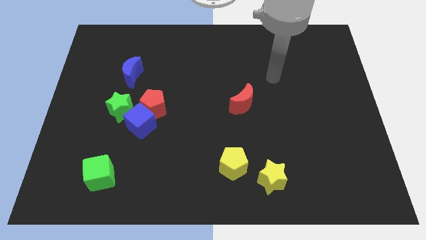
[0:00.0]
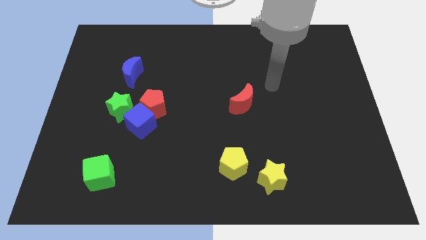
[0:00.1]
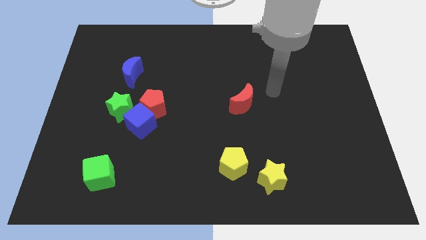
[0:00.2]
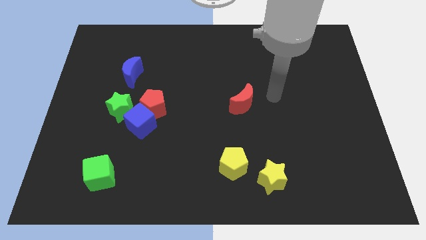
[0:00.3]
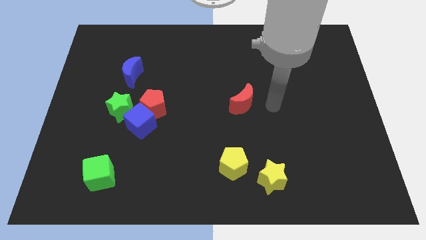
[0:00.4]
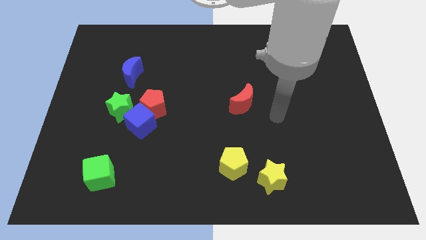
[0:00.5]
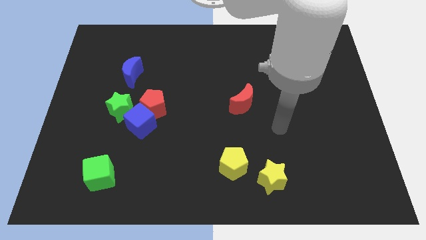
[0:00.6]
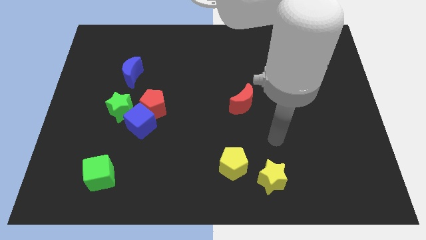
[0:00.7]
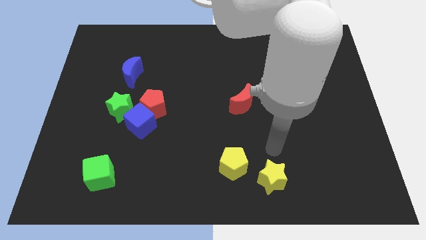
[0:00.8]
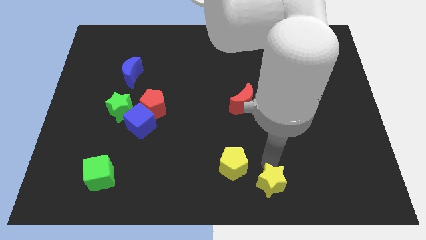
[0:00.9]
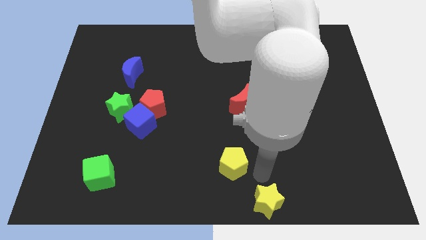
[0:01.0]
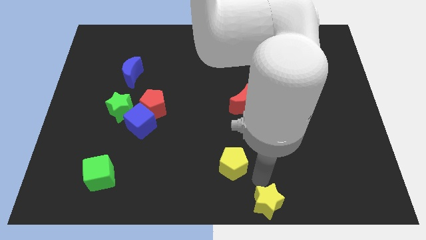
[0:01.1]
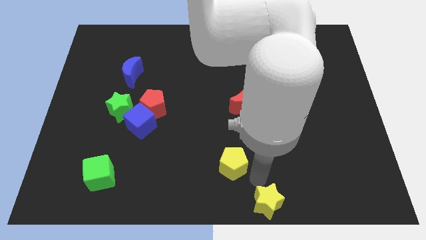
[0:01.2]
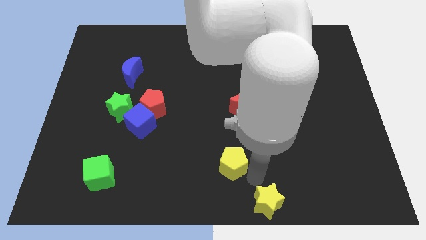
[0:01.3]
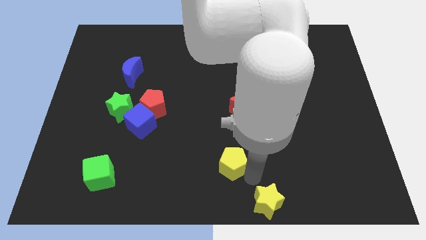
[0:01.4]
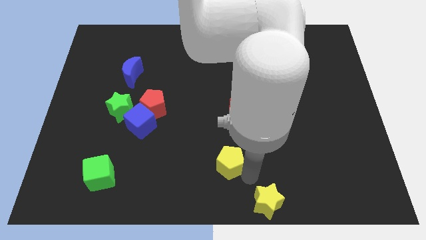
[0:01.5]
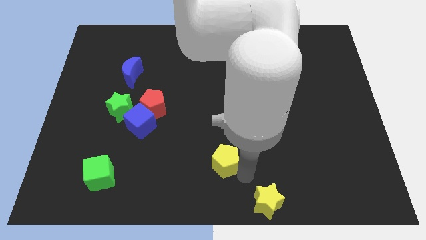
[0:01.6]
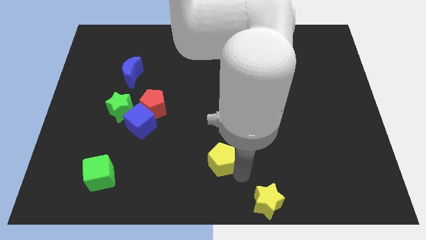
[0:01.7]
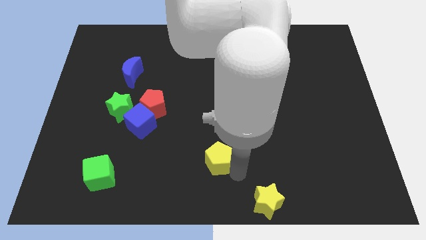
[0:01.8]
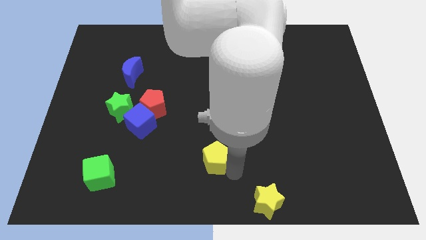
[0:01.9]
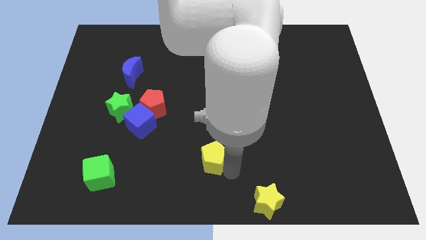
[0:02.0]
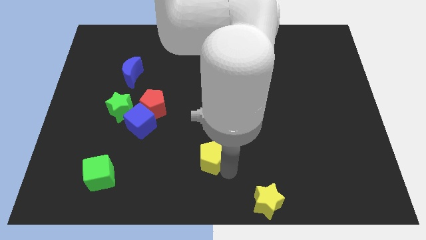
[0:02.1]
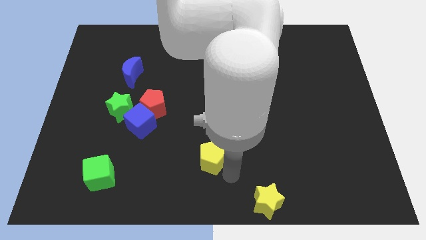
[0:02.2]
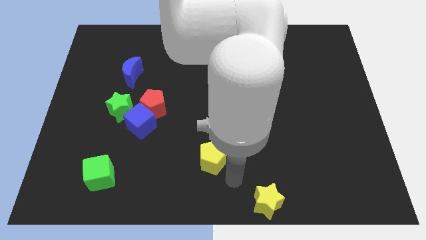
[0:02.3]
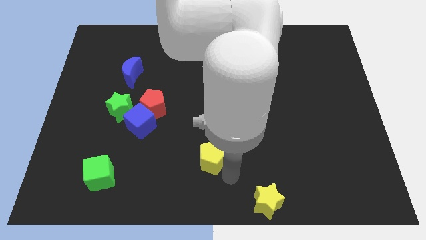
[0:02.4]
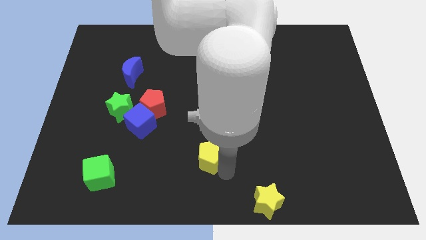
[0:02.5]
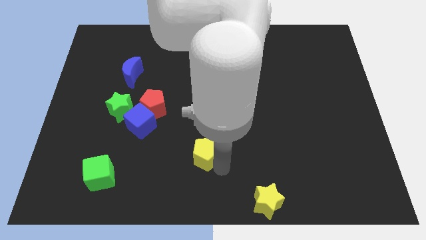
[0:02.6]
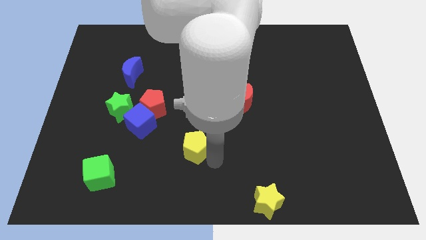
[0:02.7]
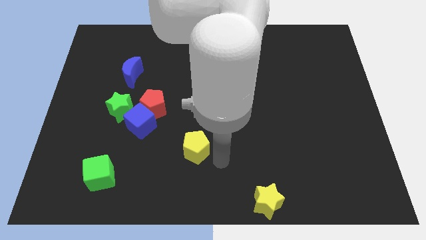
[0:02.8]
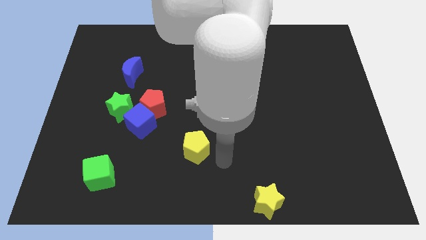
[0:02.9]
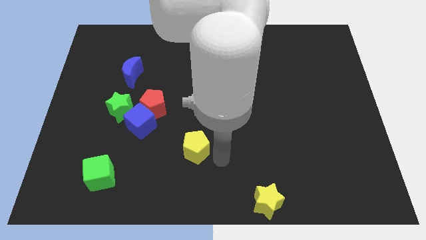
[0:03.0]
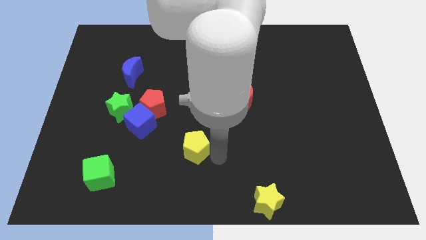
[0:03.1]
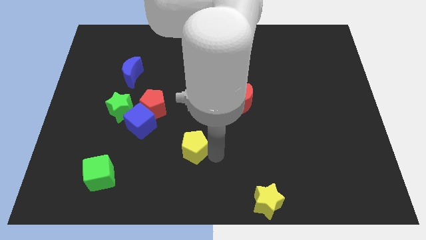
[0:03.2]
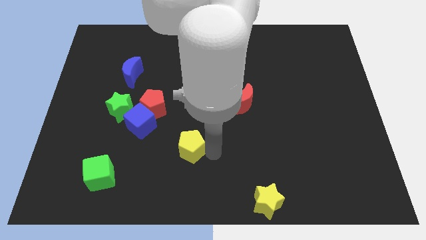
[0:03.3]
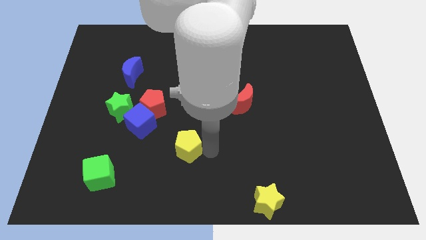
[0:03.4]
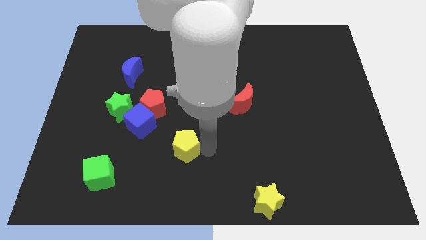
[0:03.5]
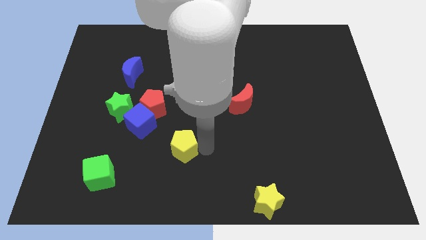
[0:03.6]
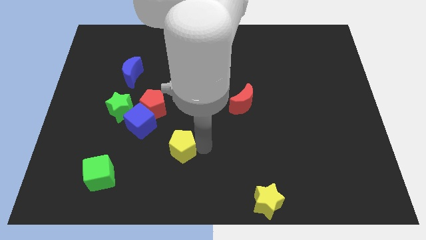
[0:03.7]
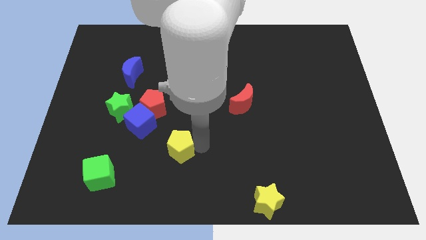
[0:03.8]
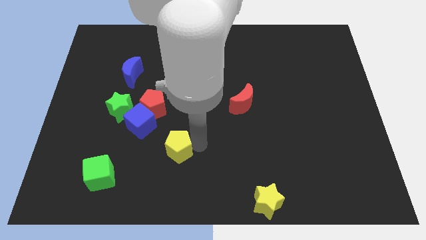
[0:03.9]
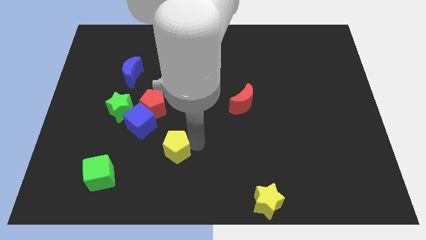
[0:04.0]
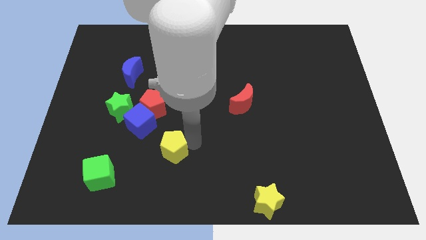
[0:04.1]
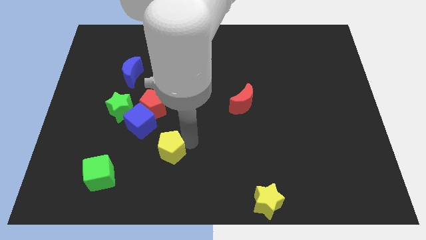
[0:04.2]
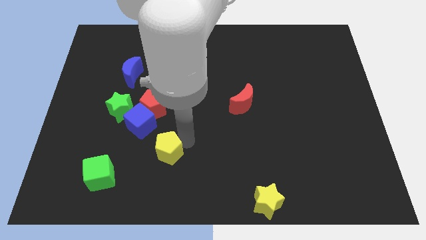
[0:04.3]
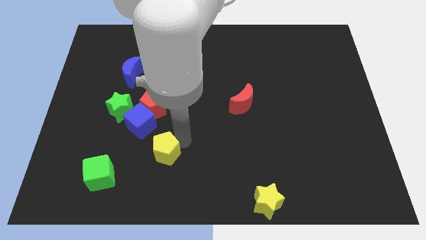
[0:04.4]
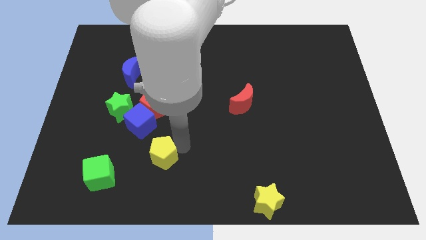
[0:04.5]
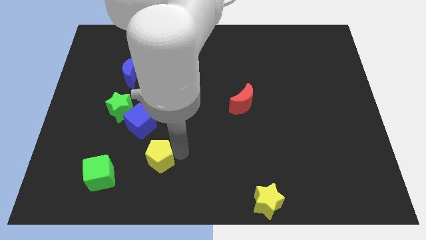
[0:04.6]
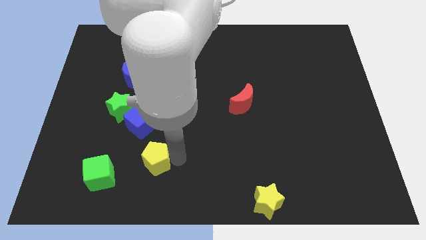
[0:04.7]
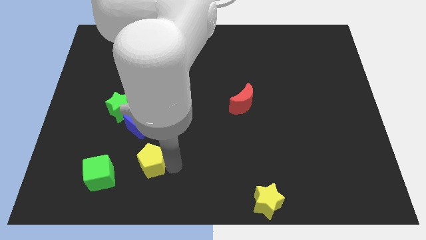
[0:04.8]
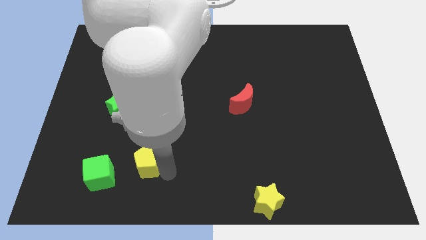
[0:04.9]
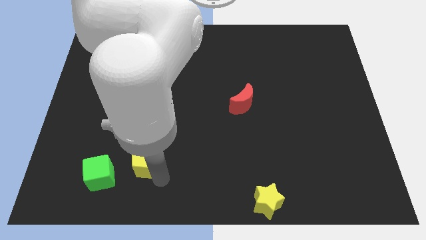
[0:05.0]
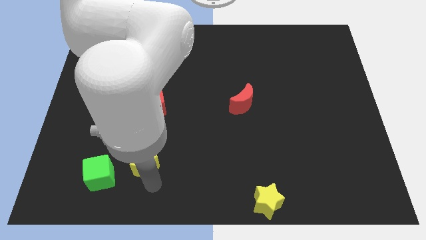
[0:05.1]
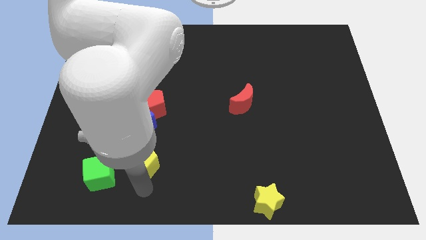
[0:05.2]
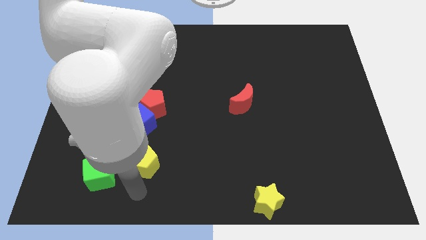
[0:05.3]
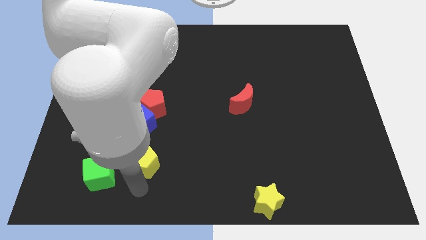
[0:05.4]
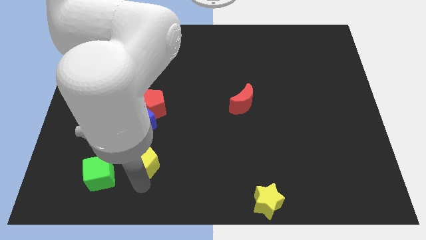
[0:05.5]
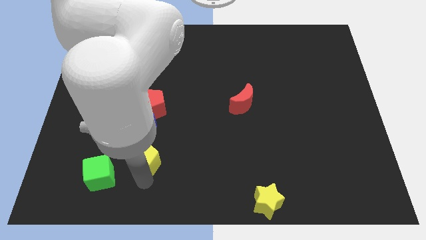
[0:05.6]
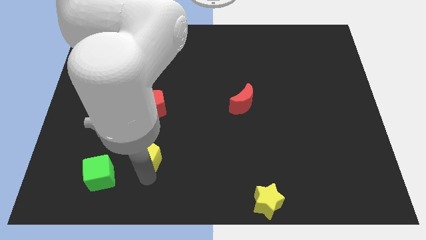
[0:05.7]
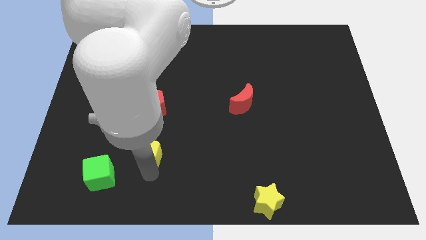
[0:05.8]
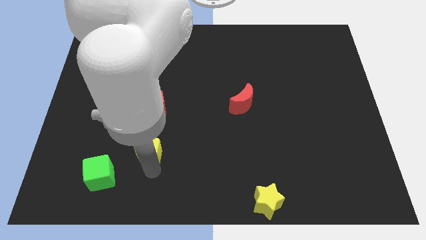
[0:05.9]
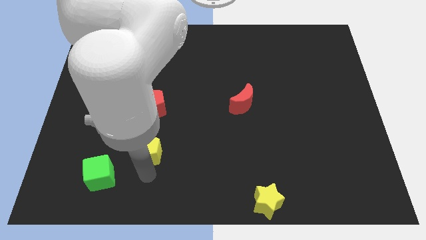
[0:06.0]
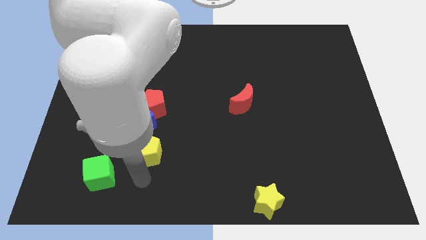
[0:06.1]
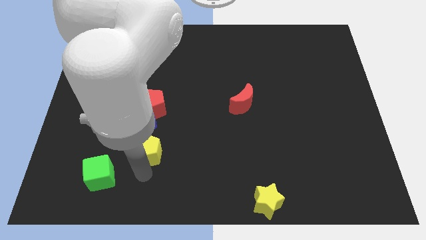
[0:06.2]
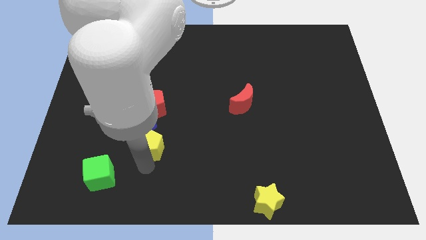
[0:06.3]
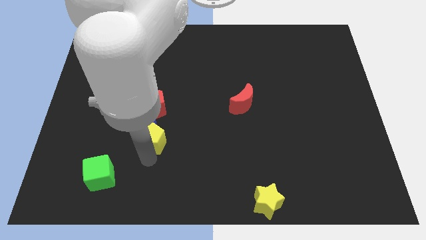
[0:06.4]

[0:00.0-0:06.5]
slide the yellow pentagon to the blue cube
